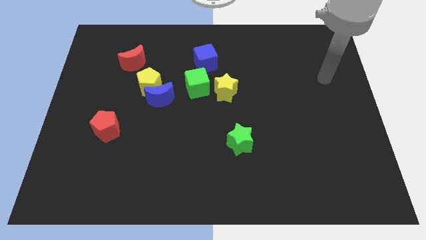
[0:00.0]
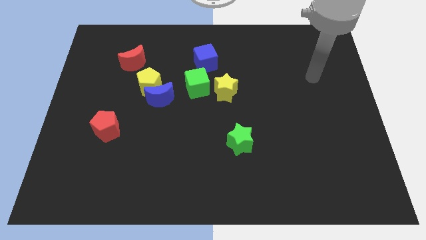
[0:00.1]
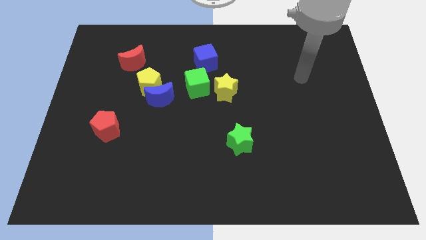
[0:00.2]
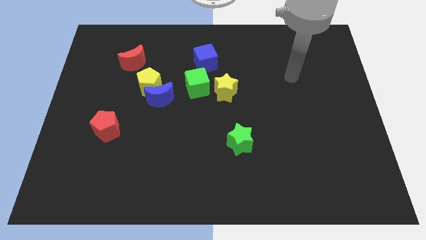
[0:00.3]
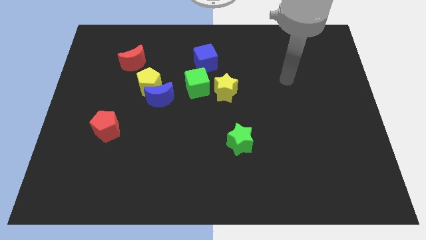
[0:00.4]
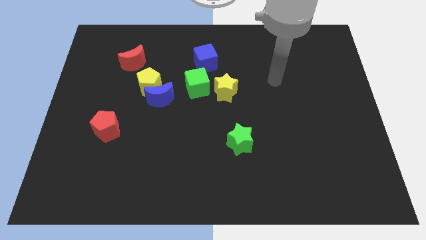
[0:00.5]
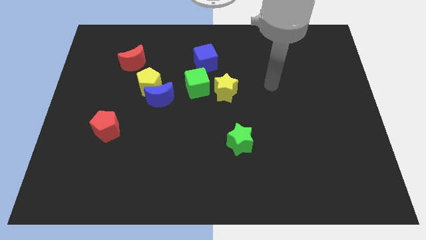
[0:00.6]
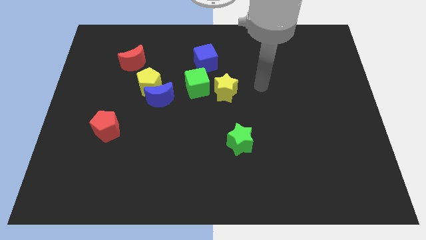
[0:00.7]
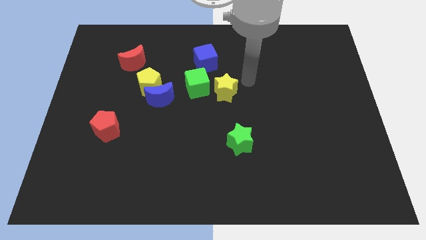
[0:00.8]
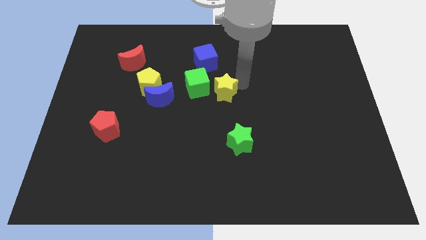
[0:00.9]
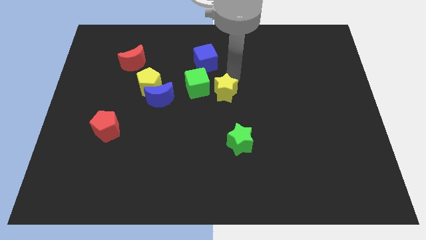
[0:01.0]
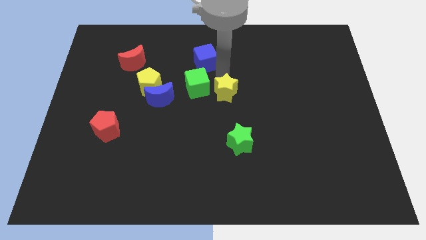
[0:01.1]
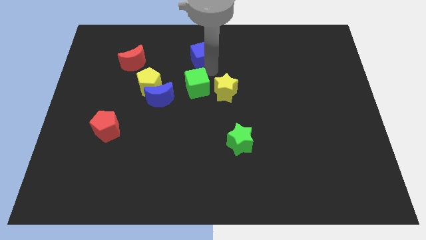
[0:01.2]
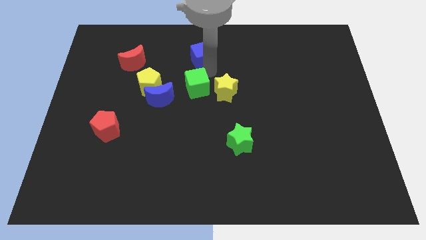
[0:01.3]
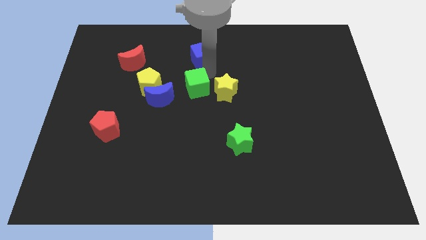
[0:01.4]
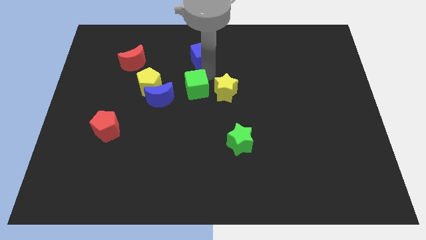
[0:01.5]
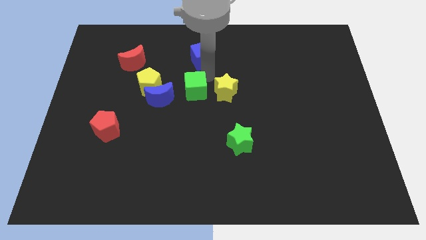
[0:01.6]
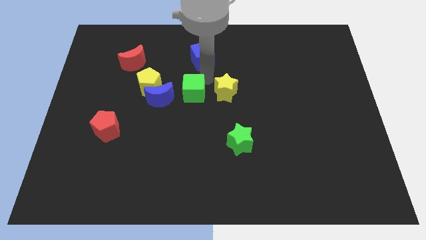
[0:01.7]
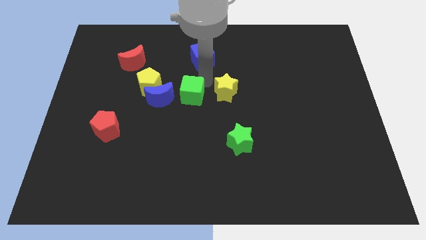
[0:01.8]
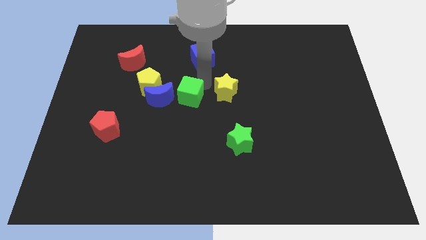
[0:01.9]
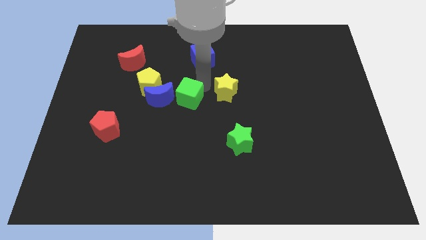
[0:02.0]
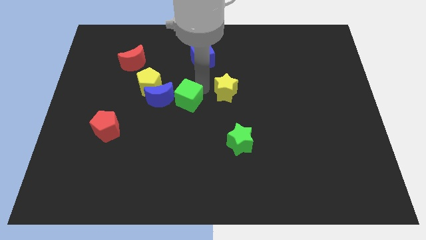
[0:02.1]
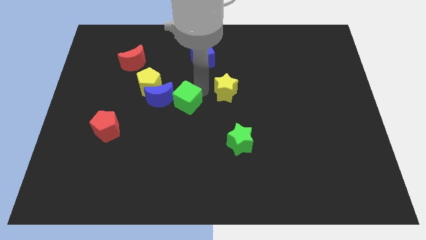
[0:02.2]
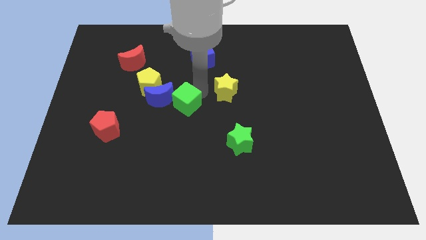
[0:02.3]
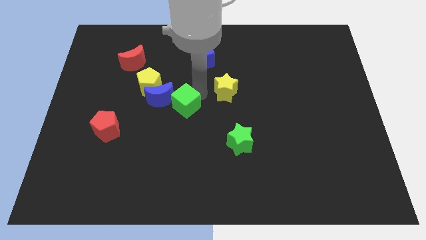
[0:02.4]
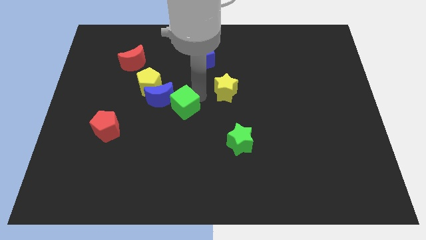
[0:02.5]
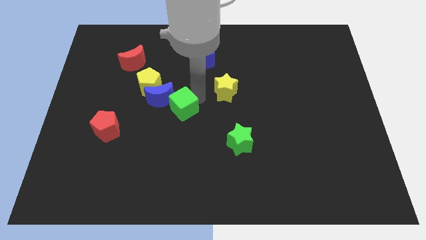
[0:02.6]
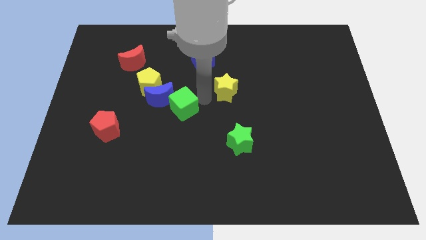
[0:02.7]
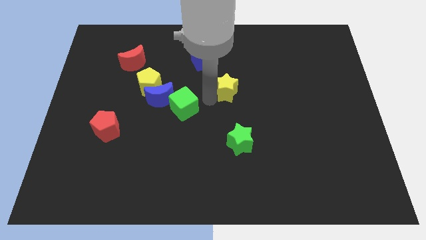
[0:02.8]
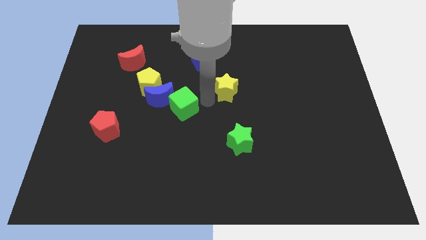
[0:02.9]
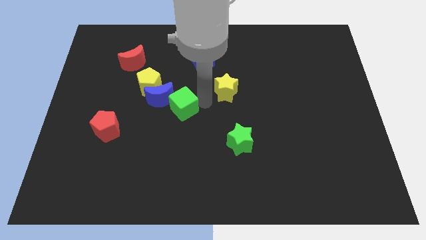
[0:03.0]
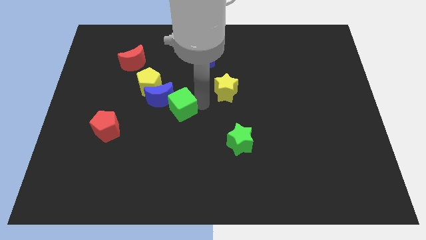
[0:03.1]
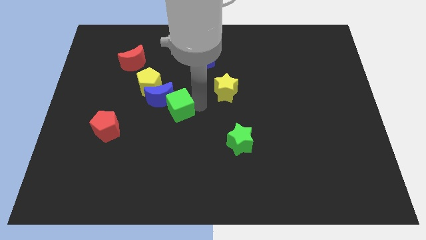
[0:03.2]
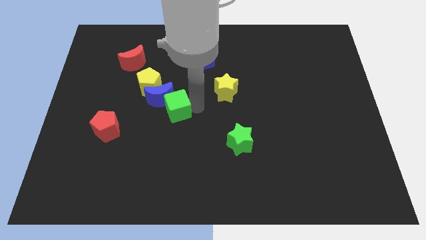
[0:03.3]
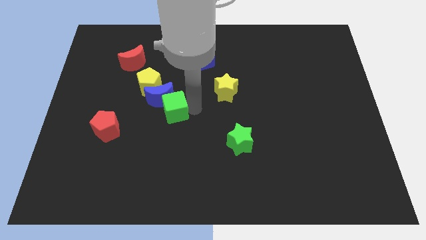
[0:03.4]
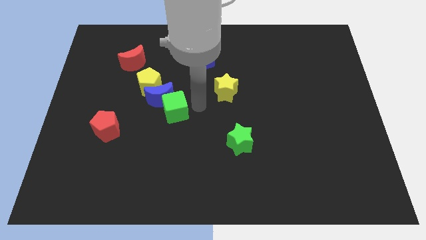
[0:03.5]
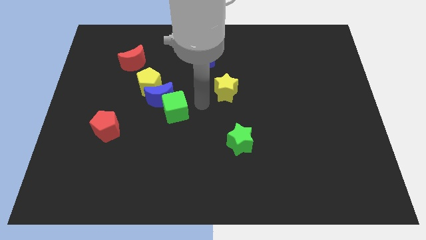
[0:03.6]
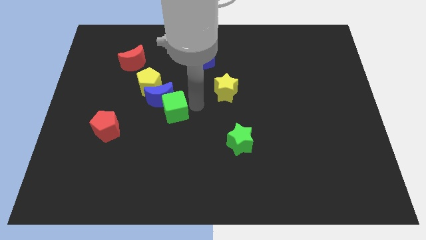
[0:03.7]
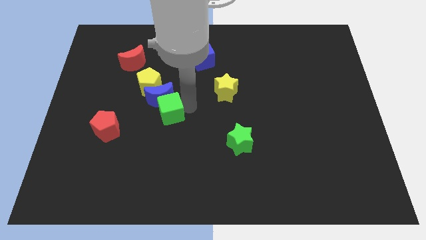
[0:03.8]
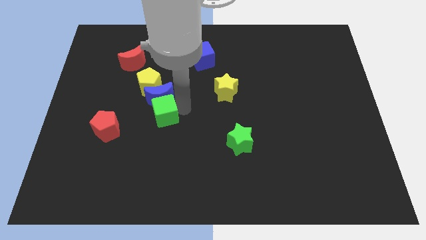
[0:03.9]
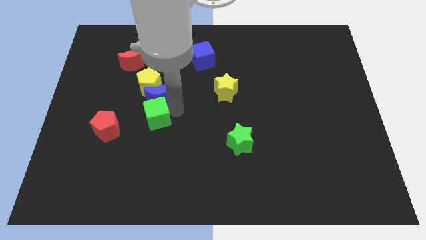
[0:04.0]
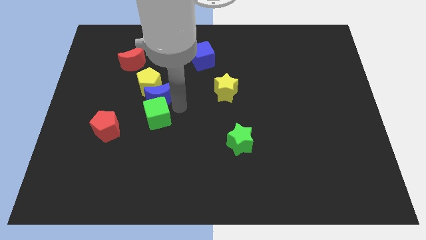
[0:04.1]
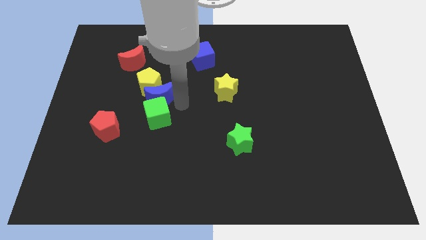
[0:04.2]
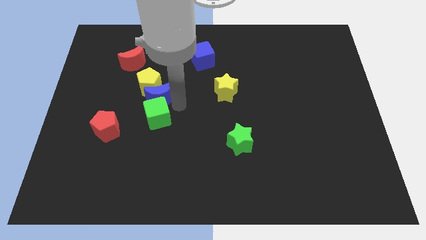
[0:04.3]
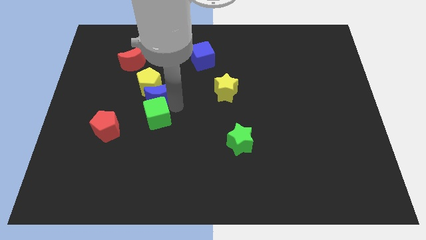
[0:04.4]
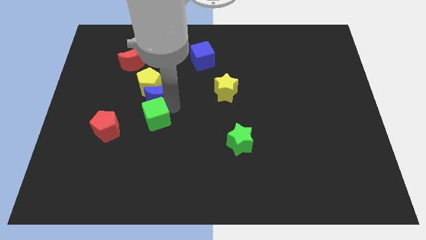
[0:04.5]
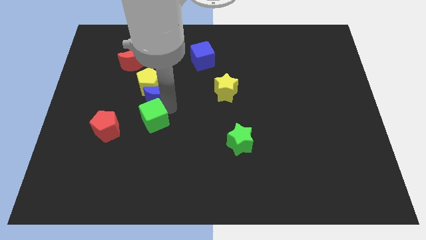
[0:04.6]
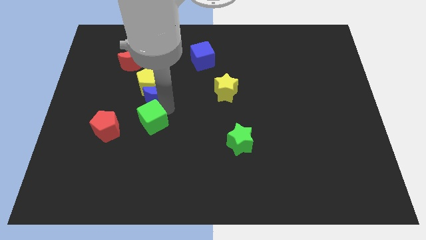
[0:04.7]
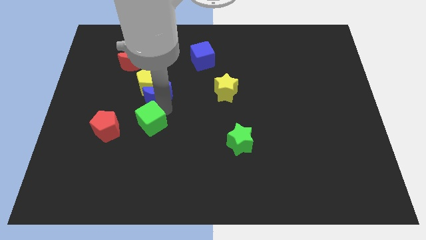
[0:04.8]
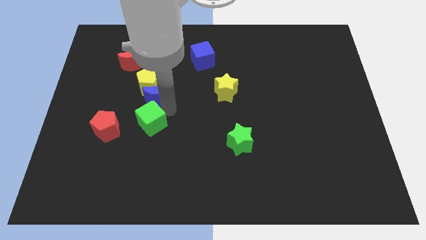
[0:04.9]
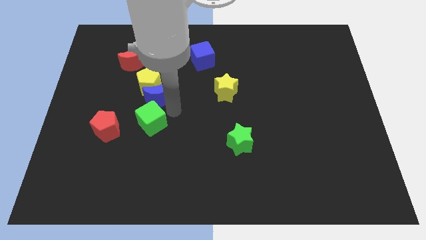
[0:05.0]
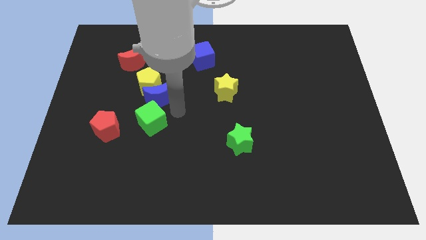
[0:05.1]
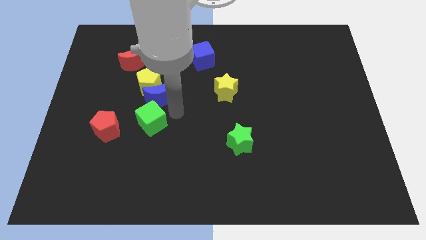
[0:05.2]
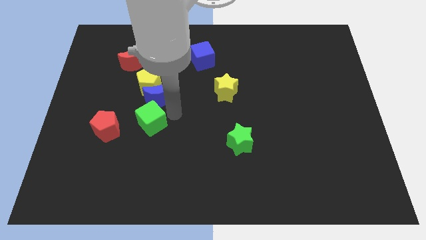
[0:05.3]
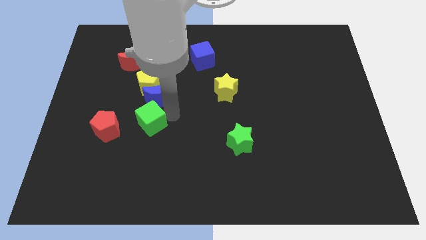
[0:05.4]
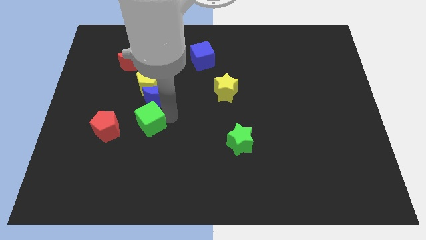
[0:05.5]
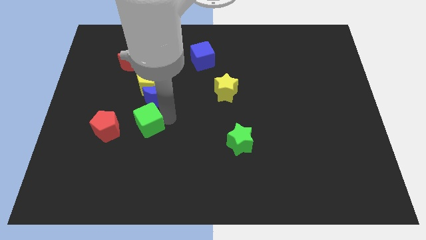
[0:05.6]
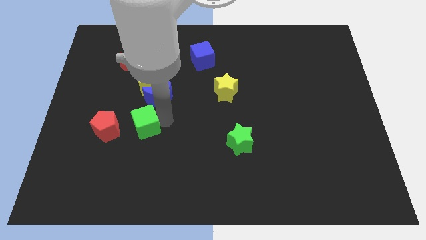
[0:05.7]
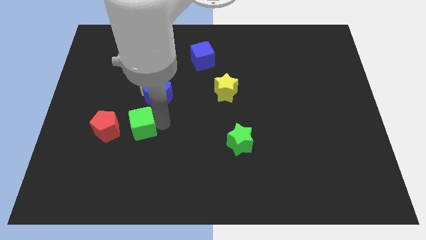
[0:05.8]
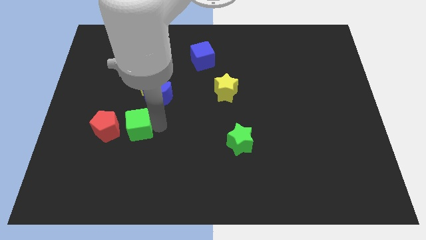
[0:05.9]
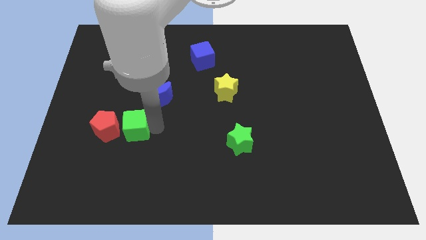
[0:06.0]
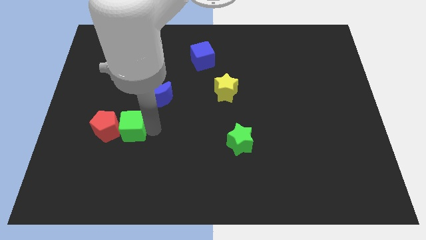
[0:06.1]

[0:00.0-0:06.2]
slide the green cube close to the red pentagon

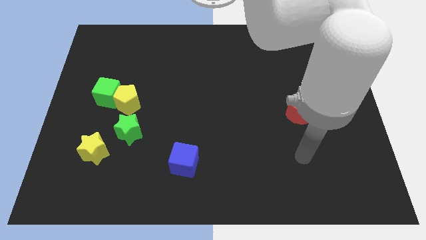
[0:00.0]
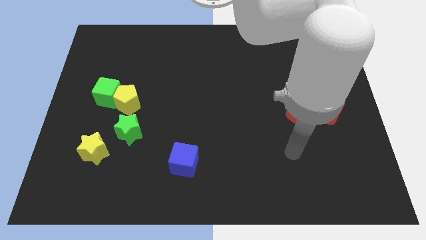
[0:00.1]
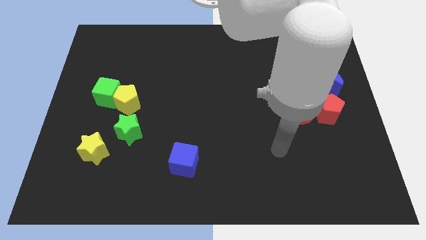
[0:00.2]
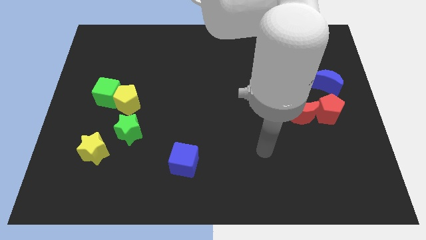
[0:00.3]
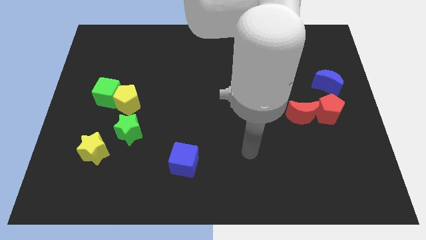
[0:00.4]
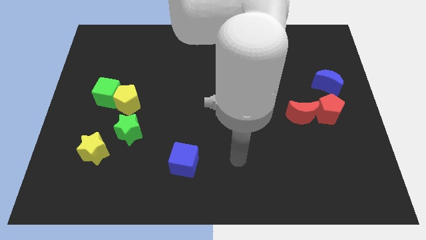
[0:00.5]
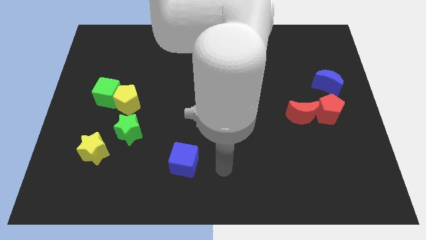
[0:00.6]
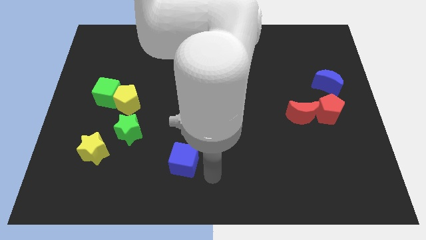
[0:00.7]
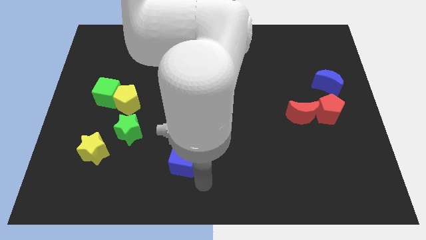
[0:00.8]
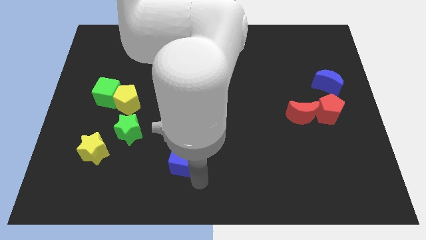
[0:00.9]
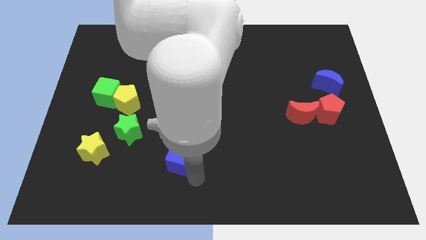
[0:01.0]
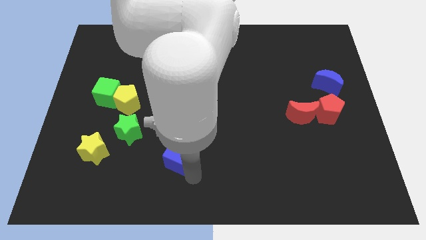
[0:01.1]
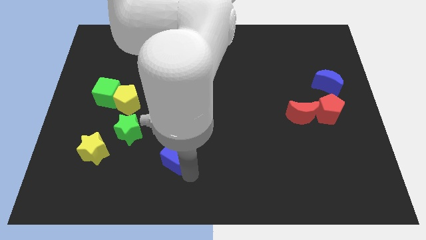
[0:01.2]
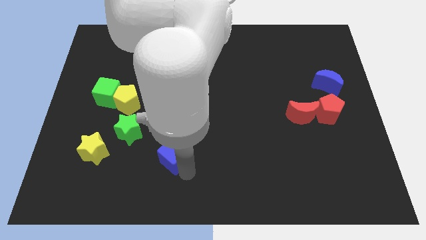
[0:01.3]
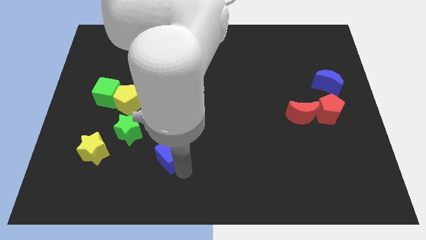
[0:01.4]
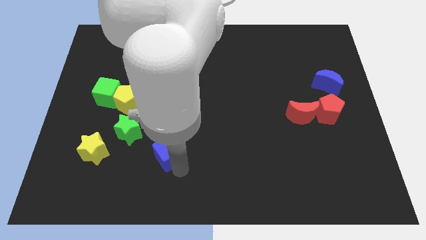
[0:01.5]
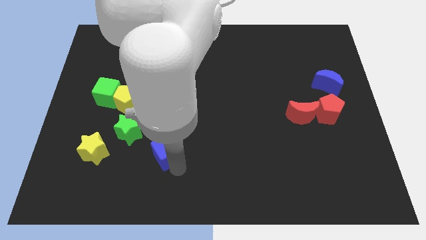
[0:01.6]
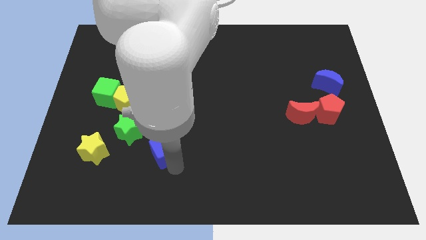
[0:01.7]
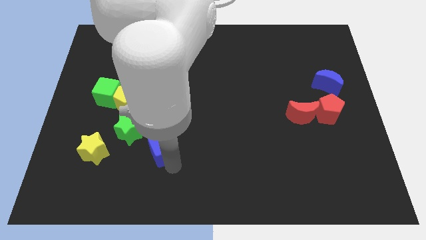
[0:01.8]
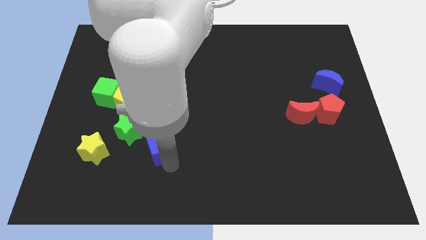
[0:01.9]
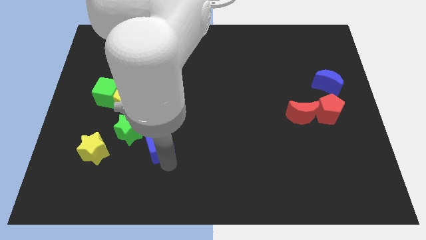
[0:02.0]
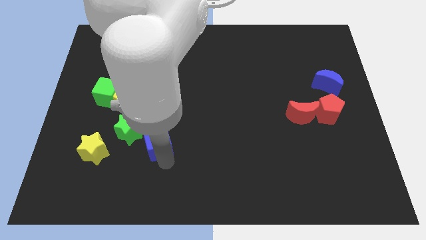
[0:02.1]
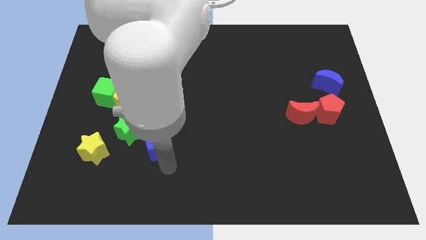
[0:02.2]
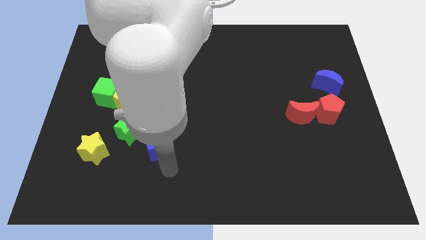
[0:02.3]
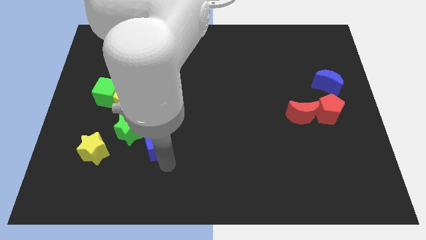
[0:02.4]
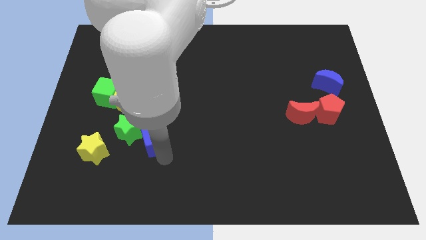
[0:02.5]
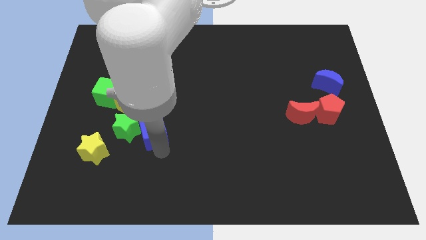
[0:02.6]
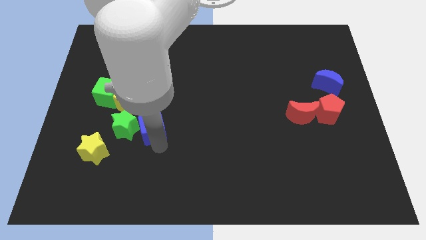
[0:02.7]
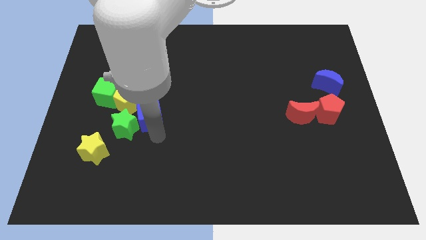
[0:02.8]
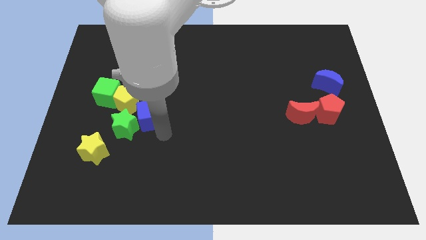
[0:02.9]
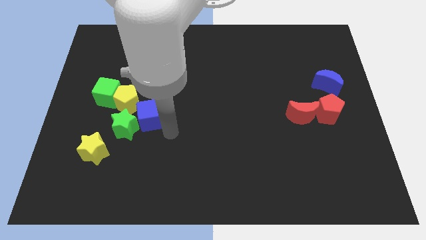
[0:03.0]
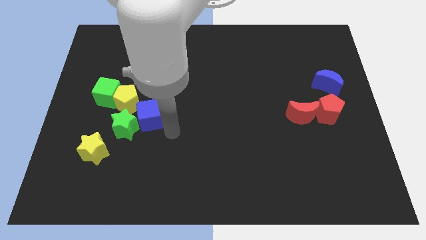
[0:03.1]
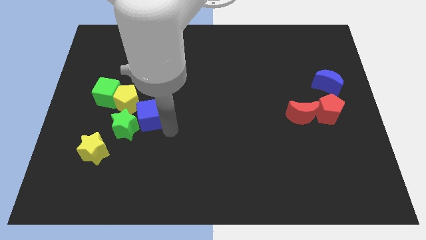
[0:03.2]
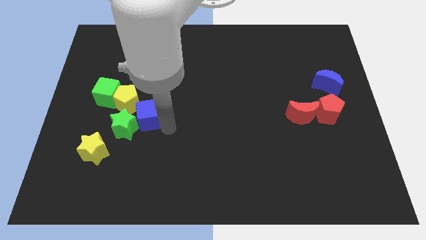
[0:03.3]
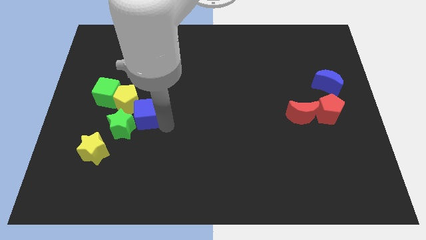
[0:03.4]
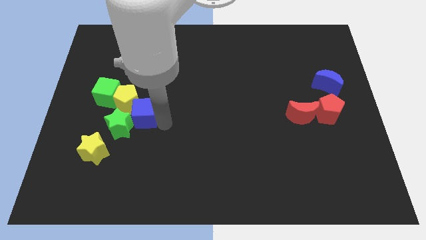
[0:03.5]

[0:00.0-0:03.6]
slide the blue cube towards the yellow pentagon
